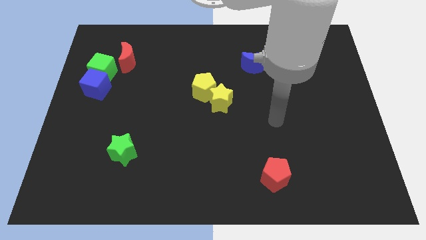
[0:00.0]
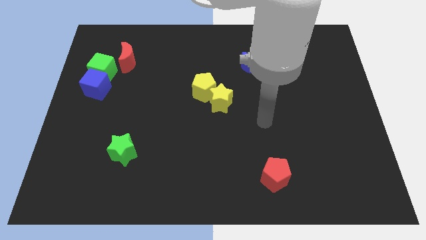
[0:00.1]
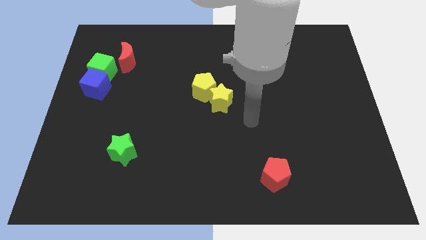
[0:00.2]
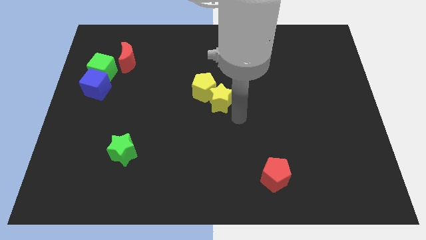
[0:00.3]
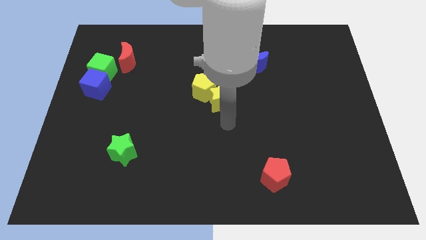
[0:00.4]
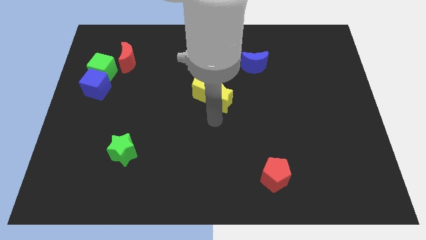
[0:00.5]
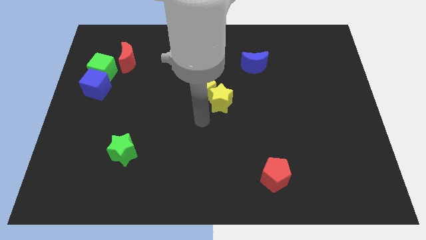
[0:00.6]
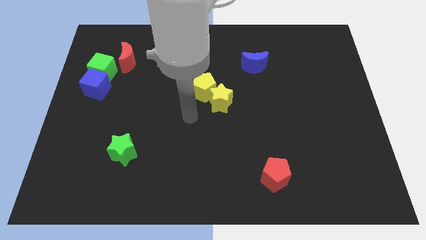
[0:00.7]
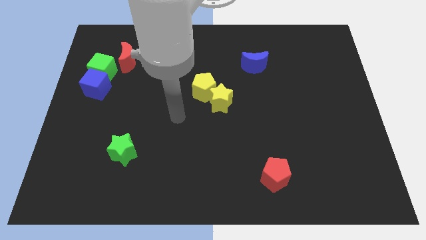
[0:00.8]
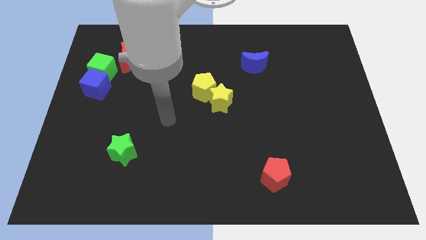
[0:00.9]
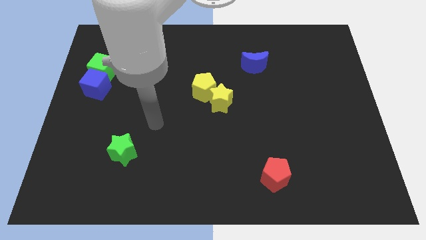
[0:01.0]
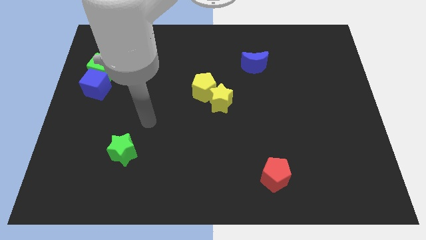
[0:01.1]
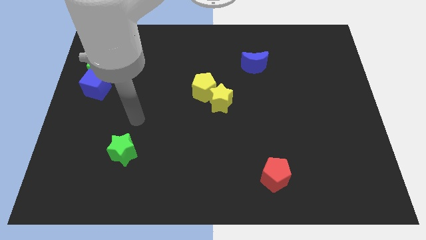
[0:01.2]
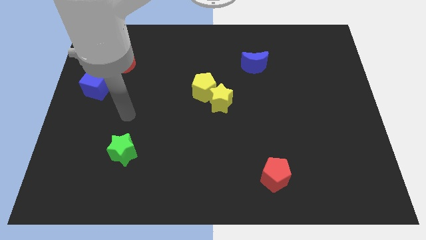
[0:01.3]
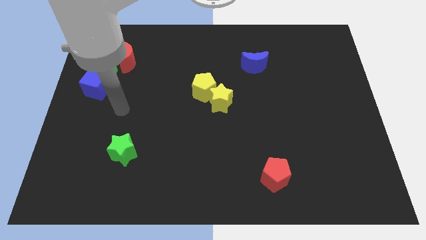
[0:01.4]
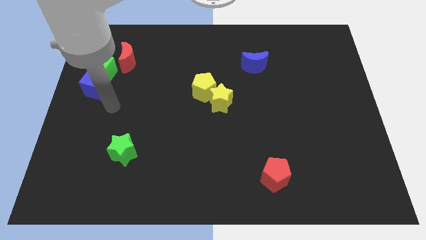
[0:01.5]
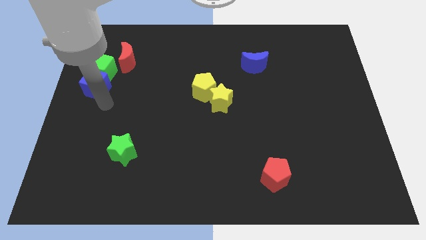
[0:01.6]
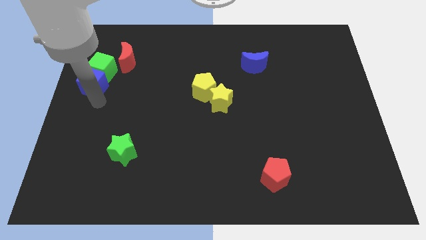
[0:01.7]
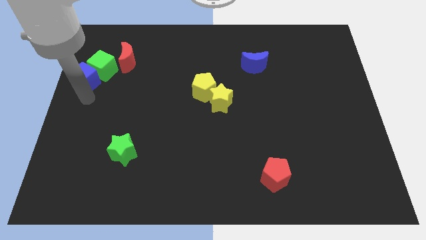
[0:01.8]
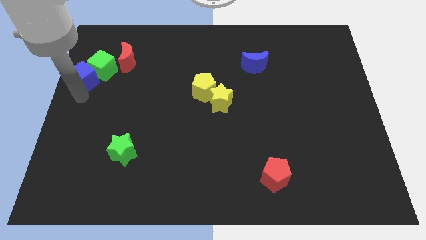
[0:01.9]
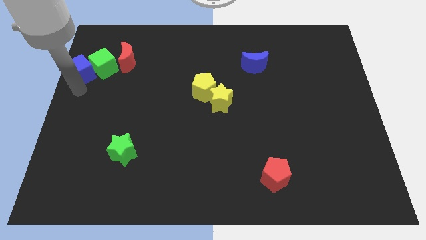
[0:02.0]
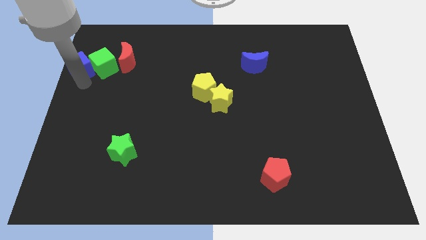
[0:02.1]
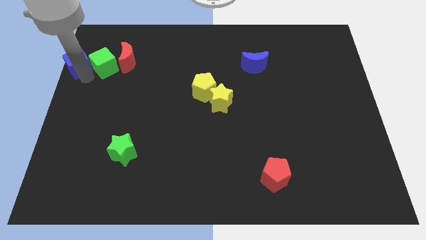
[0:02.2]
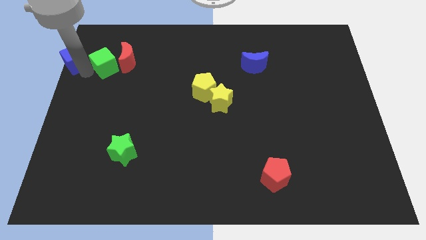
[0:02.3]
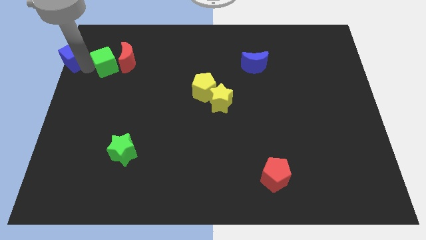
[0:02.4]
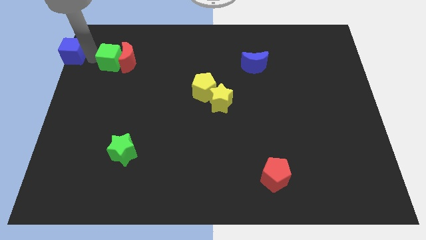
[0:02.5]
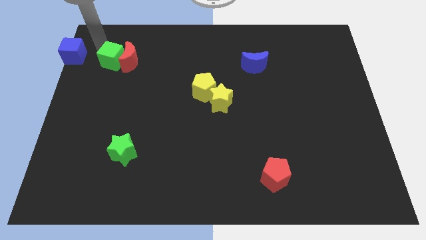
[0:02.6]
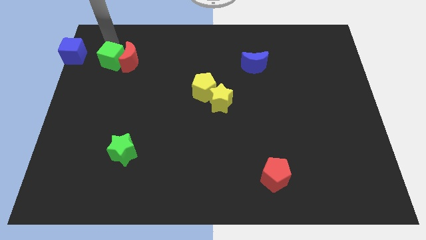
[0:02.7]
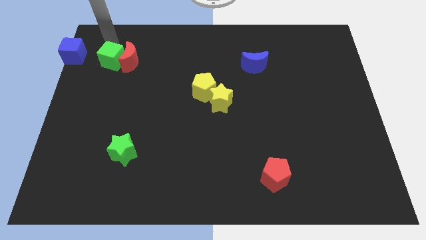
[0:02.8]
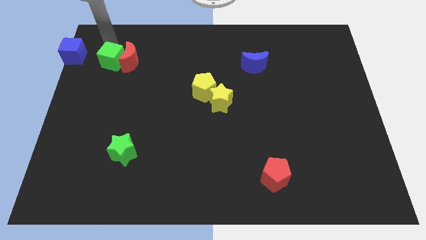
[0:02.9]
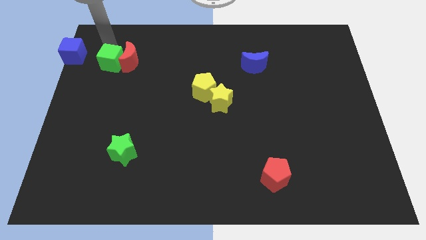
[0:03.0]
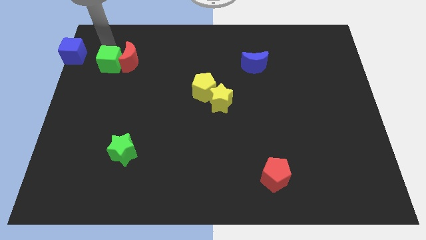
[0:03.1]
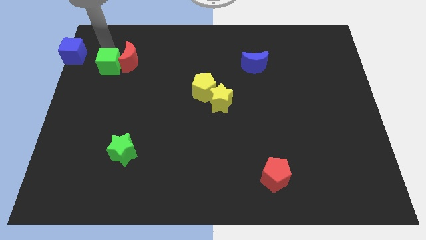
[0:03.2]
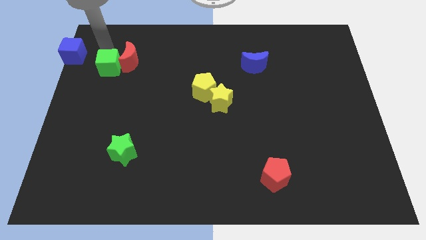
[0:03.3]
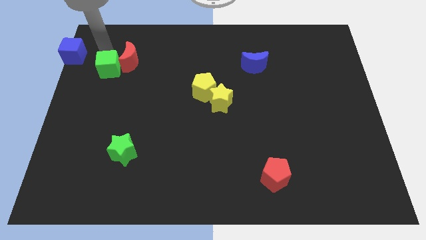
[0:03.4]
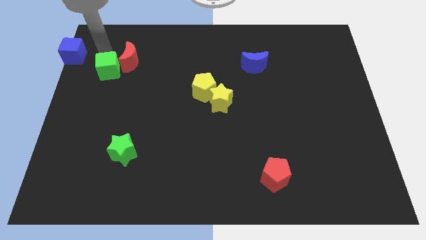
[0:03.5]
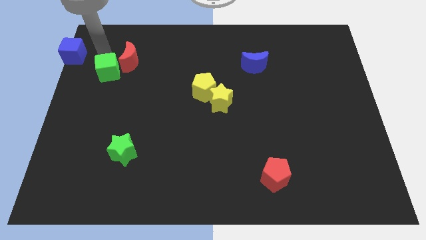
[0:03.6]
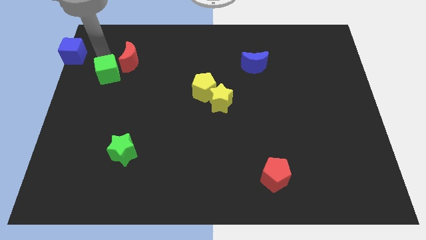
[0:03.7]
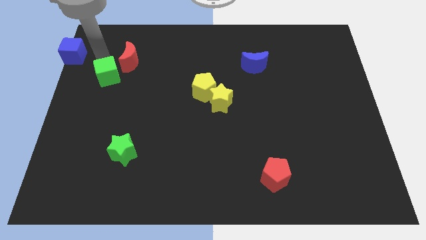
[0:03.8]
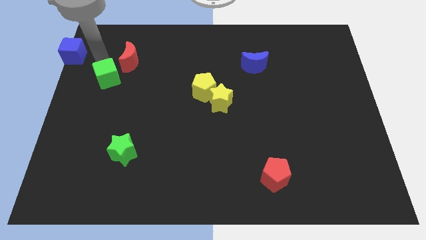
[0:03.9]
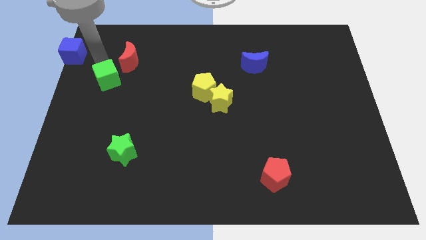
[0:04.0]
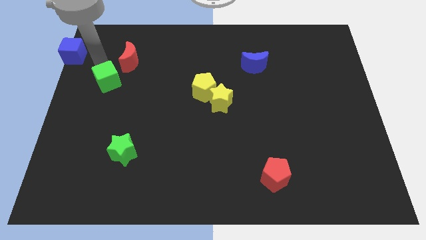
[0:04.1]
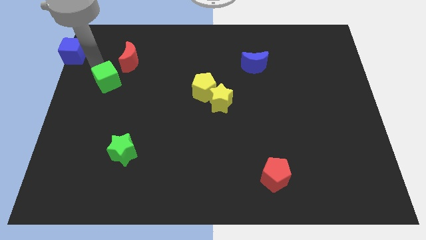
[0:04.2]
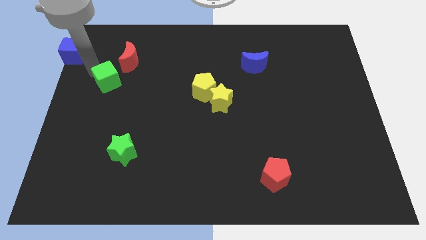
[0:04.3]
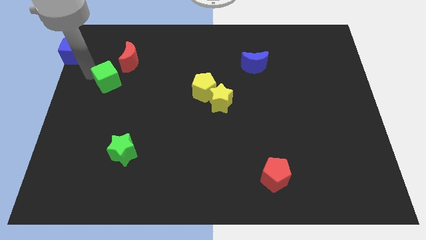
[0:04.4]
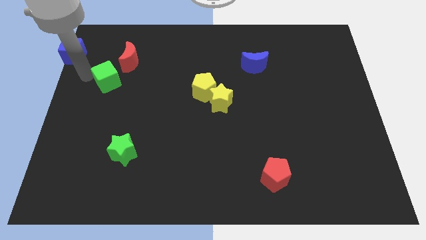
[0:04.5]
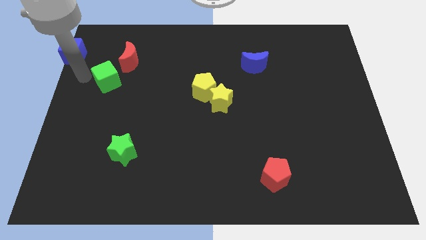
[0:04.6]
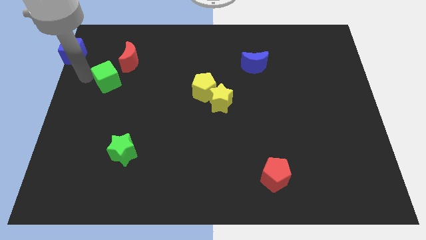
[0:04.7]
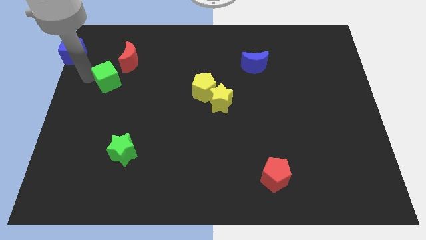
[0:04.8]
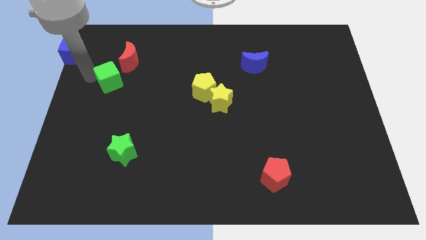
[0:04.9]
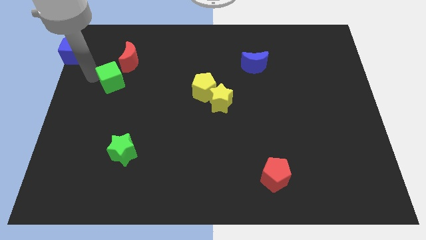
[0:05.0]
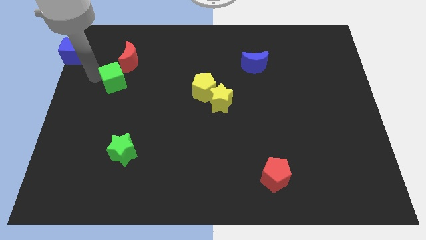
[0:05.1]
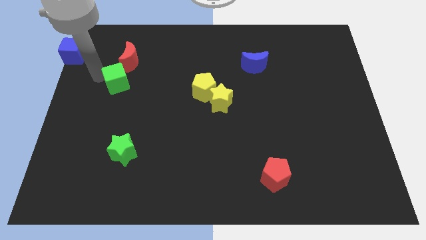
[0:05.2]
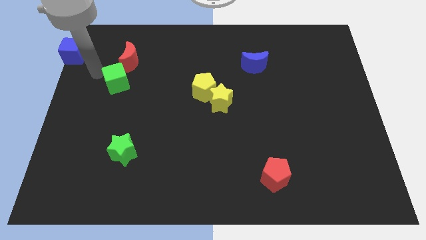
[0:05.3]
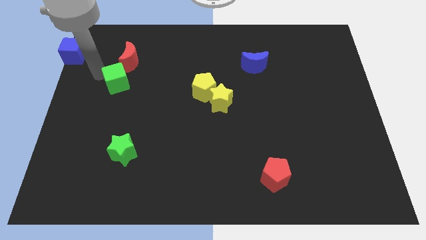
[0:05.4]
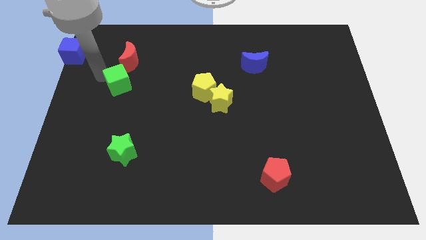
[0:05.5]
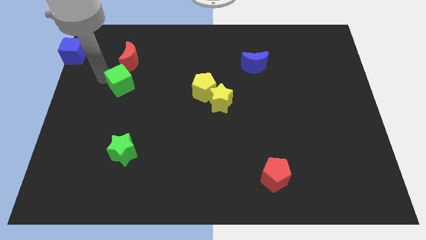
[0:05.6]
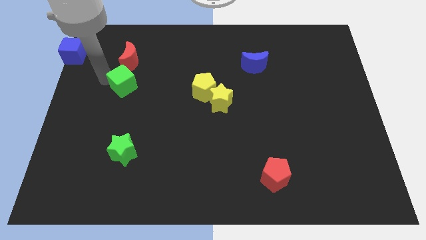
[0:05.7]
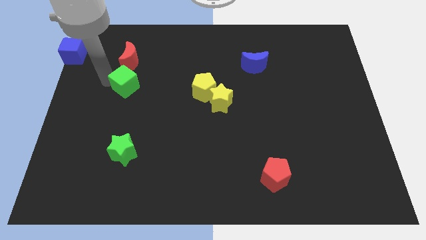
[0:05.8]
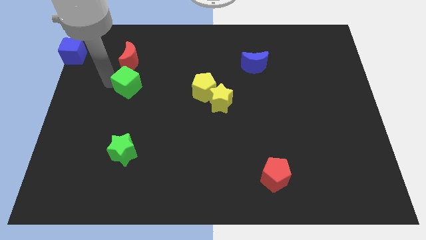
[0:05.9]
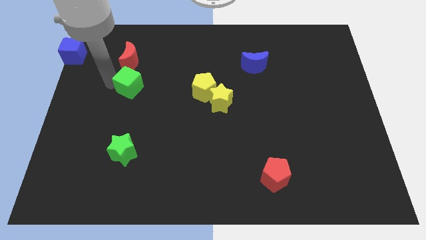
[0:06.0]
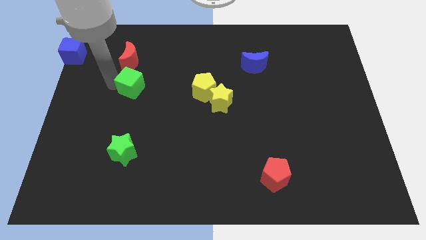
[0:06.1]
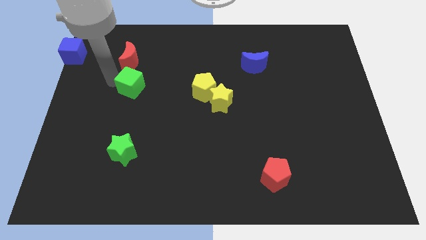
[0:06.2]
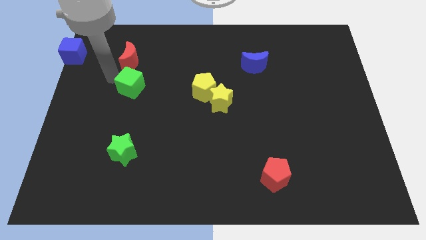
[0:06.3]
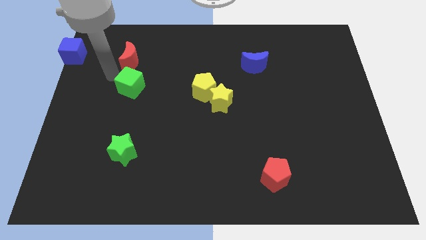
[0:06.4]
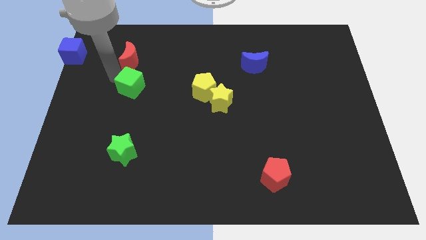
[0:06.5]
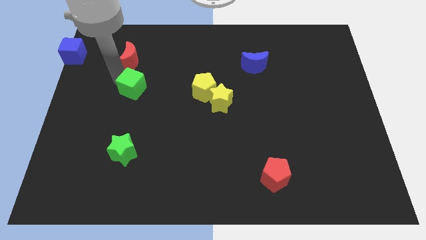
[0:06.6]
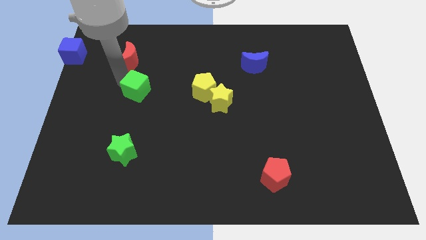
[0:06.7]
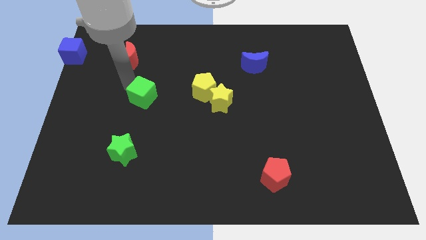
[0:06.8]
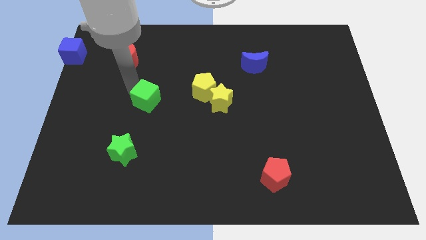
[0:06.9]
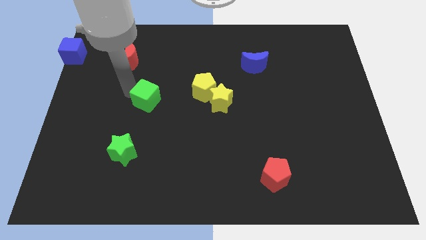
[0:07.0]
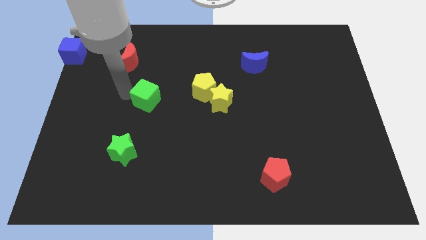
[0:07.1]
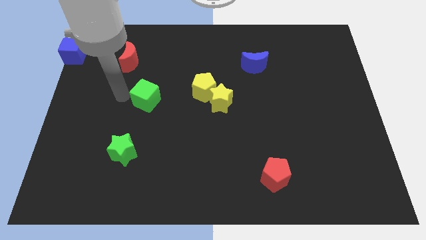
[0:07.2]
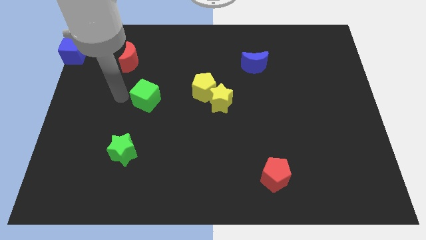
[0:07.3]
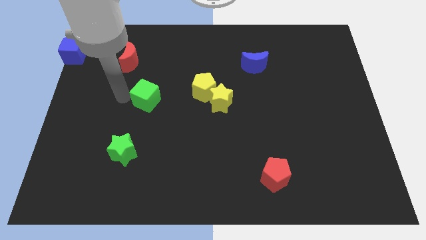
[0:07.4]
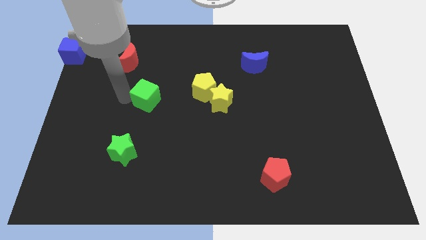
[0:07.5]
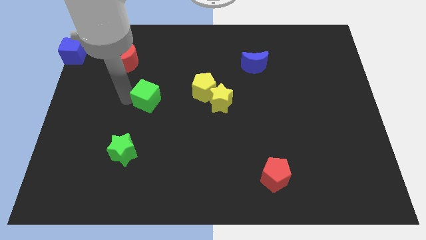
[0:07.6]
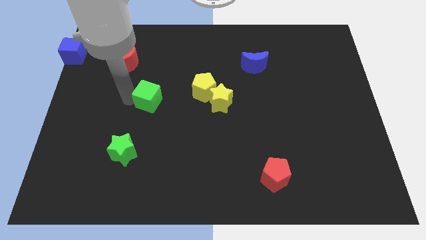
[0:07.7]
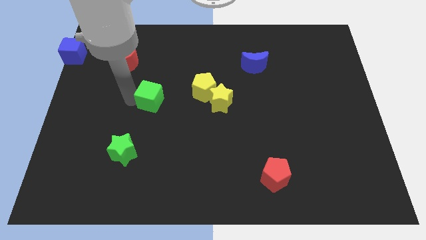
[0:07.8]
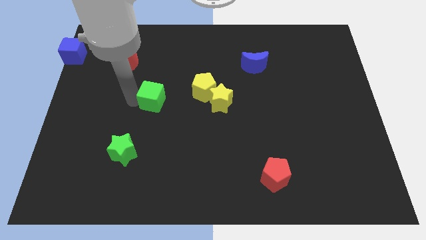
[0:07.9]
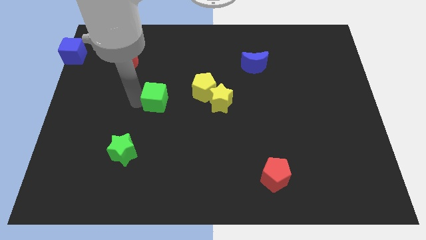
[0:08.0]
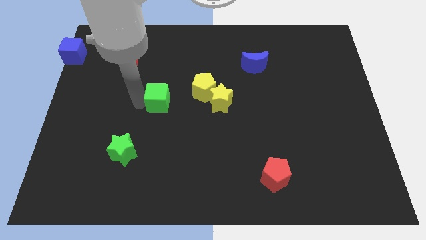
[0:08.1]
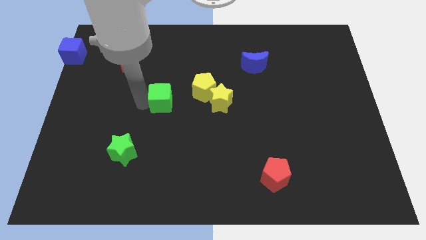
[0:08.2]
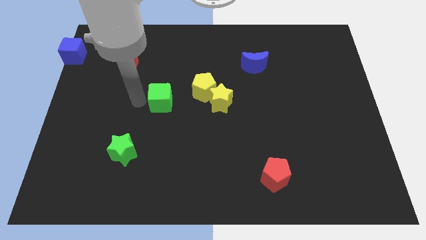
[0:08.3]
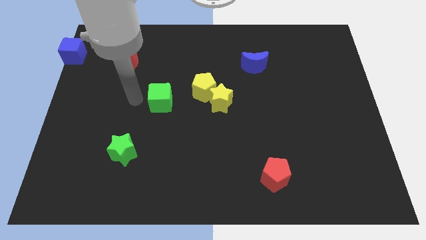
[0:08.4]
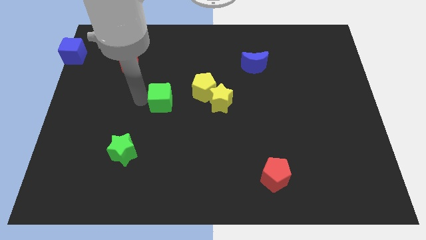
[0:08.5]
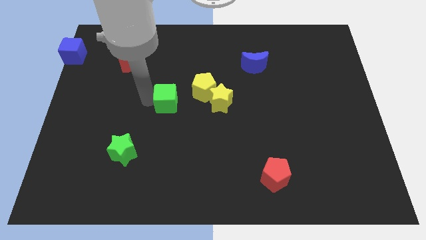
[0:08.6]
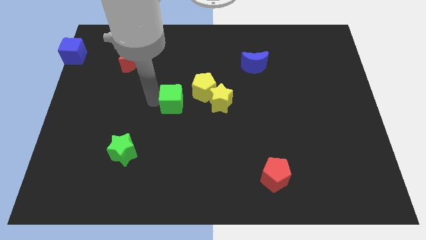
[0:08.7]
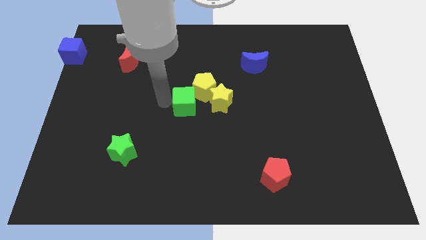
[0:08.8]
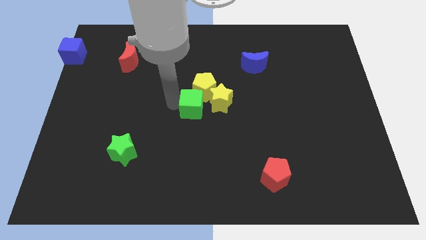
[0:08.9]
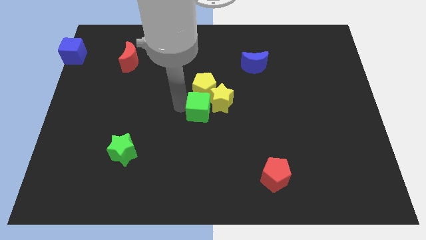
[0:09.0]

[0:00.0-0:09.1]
put the green cube towards the yellow star
